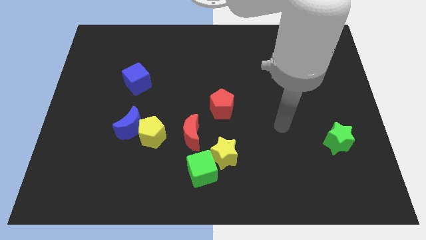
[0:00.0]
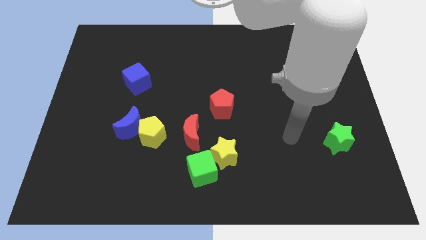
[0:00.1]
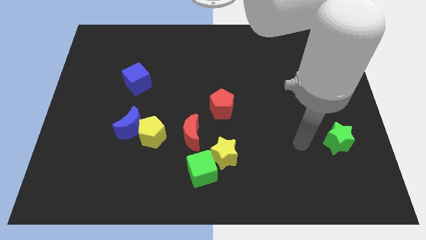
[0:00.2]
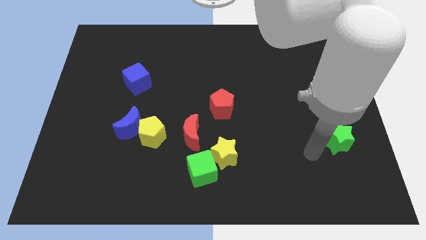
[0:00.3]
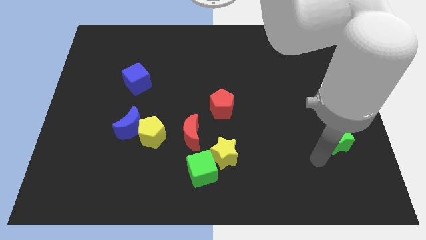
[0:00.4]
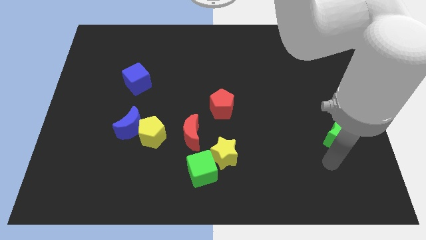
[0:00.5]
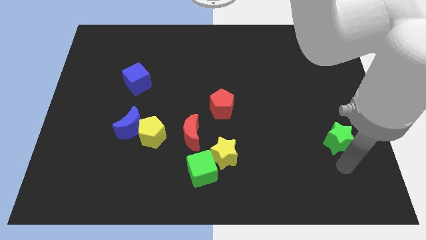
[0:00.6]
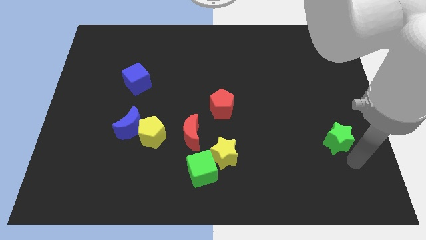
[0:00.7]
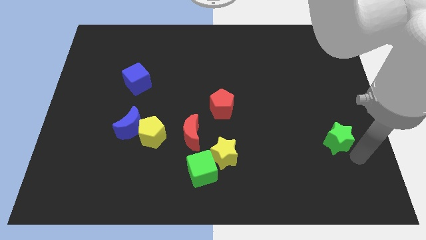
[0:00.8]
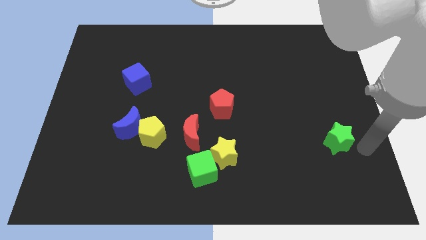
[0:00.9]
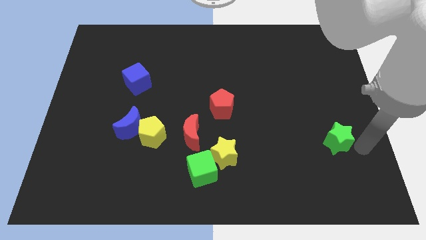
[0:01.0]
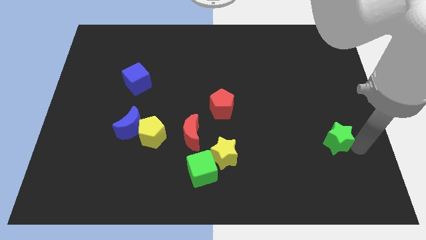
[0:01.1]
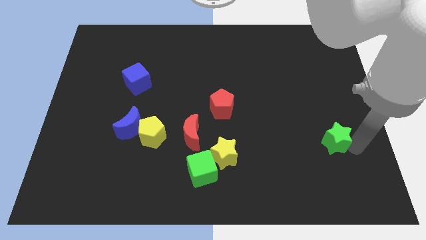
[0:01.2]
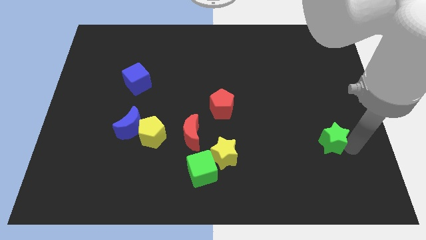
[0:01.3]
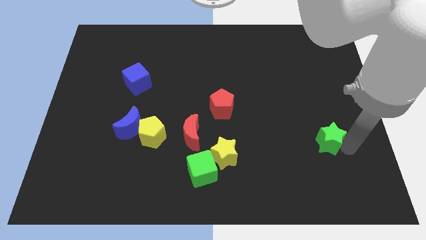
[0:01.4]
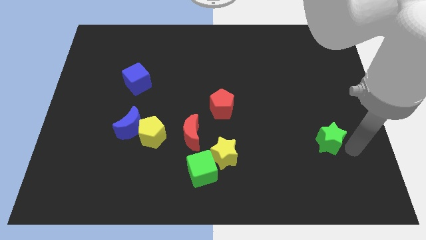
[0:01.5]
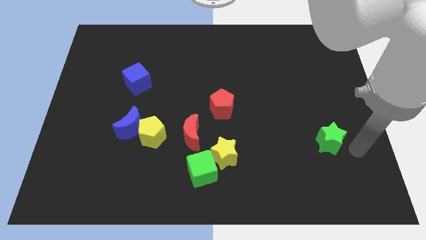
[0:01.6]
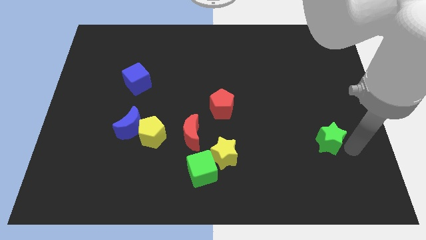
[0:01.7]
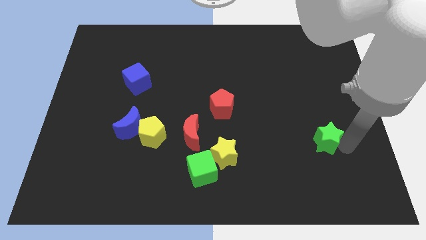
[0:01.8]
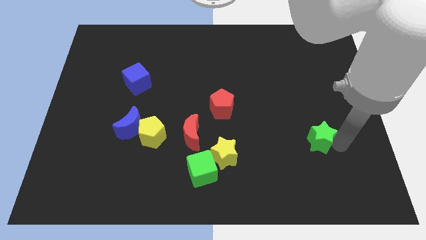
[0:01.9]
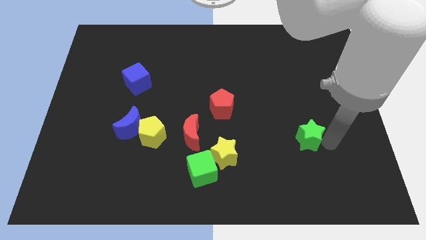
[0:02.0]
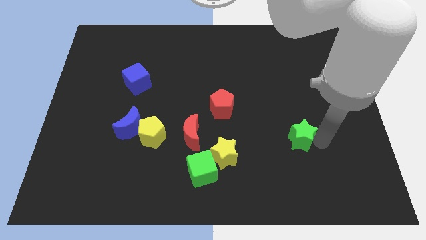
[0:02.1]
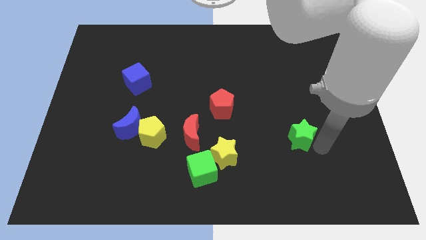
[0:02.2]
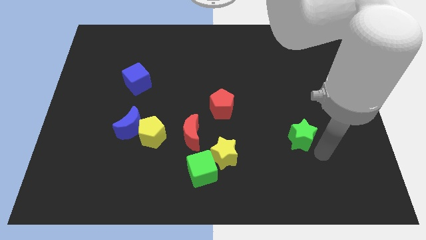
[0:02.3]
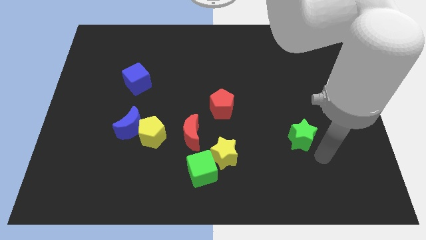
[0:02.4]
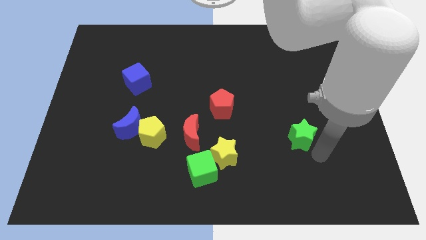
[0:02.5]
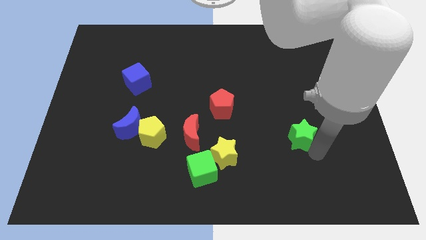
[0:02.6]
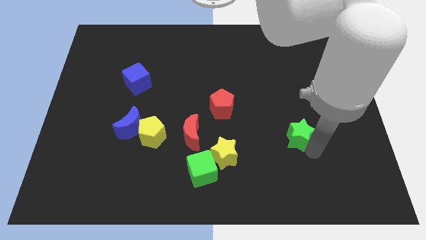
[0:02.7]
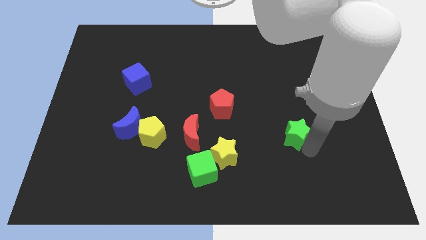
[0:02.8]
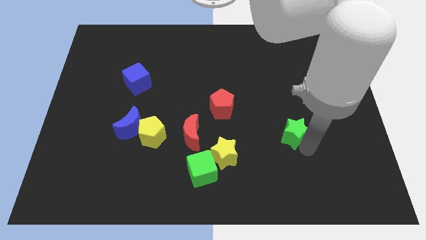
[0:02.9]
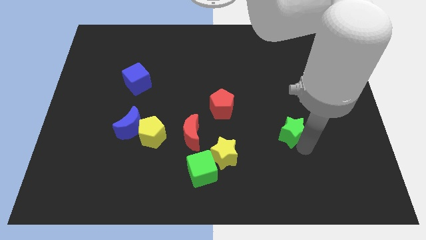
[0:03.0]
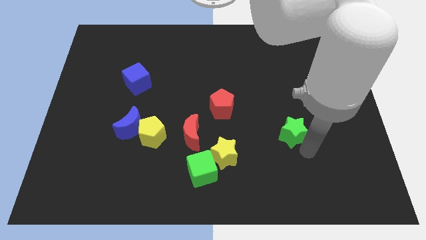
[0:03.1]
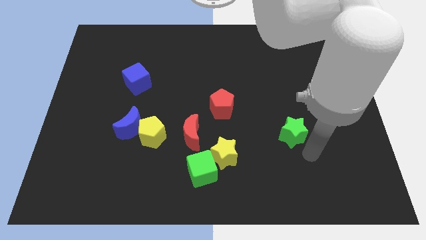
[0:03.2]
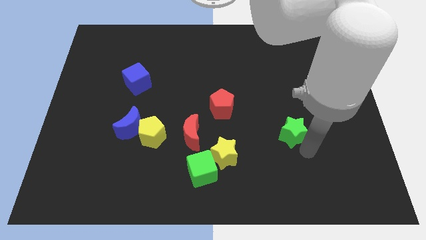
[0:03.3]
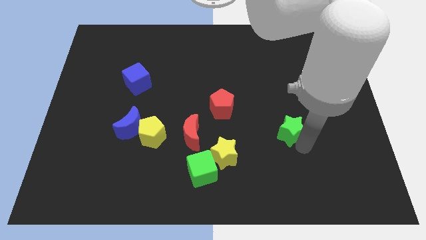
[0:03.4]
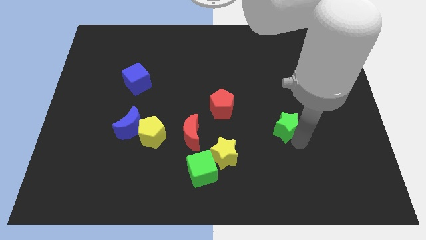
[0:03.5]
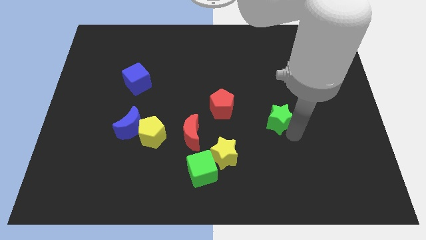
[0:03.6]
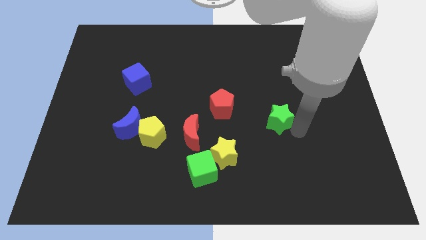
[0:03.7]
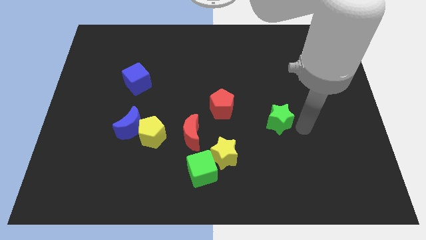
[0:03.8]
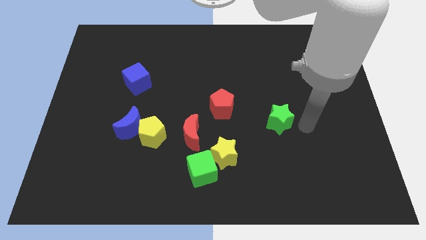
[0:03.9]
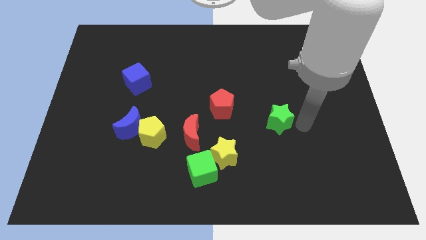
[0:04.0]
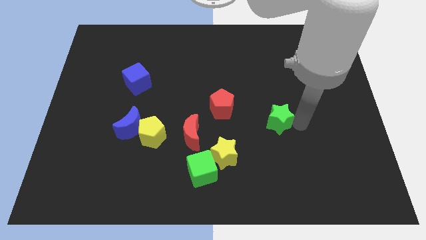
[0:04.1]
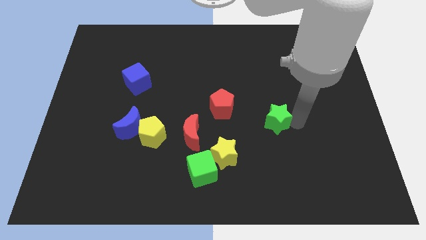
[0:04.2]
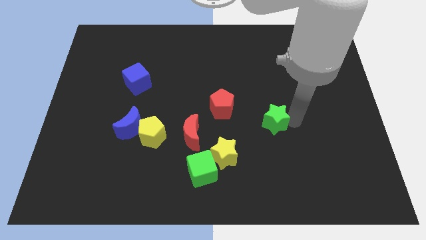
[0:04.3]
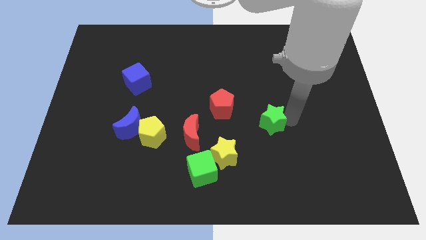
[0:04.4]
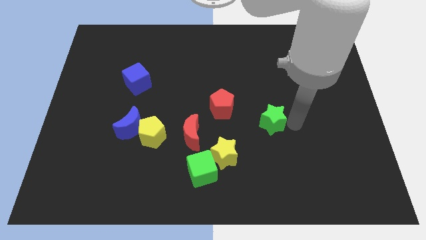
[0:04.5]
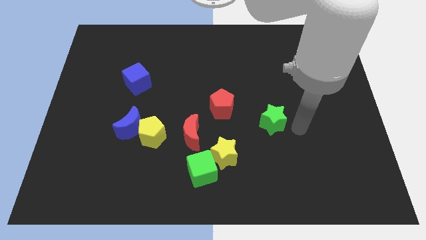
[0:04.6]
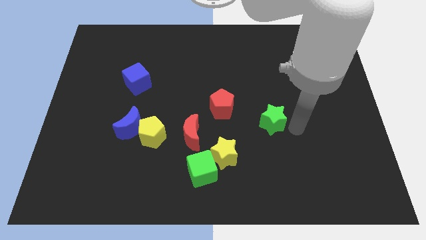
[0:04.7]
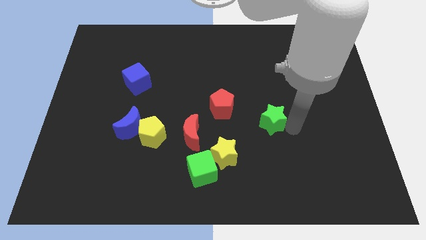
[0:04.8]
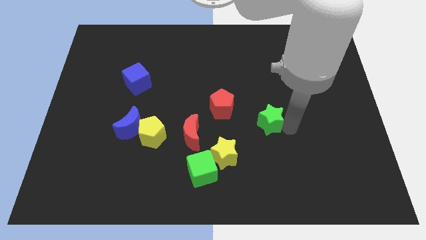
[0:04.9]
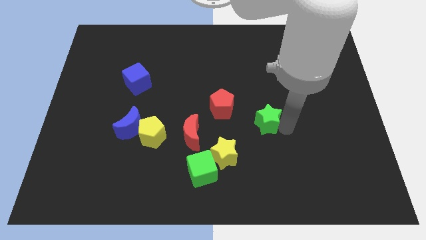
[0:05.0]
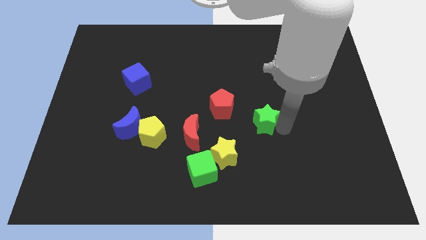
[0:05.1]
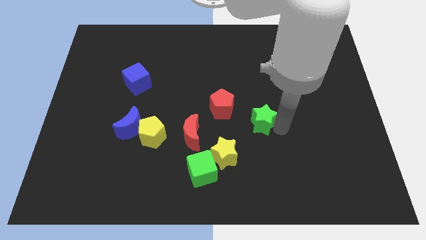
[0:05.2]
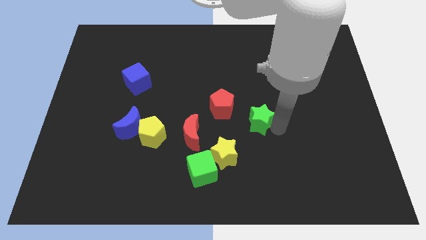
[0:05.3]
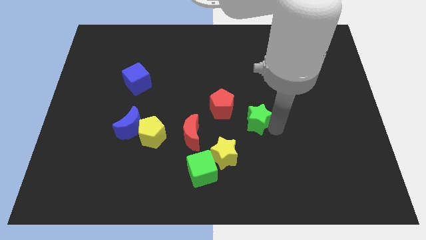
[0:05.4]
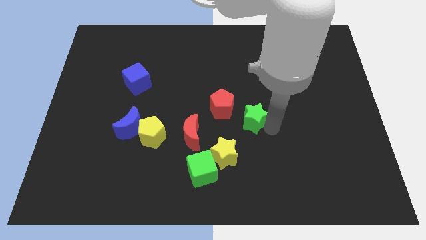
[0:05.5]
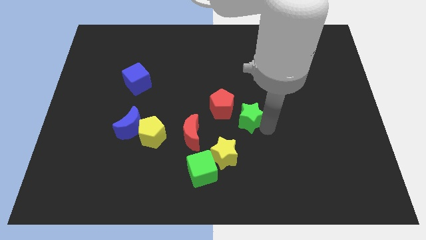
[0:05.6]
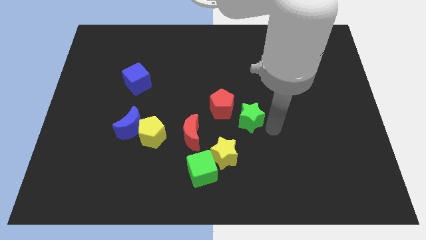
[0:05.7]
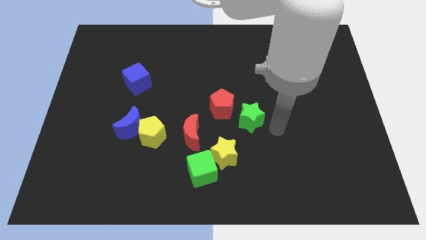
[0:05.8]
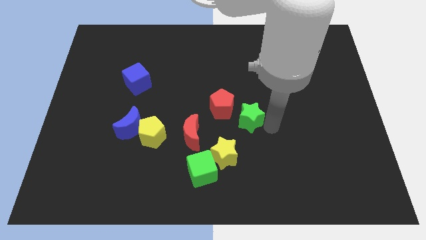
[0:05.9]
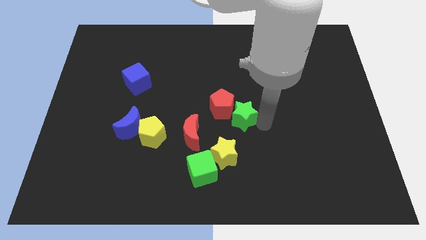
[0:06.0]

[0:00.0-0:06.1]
put the green star to the red pentagon

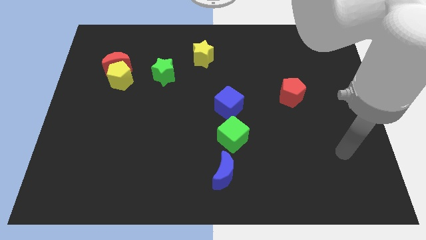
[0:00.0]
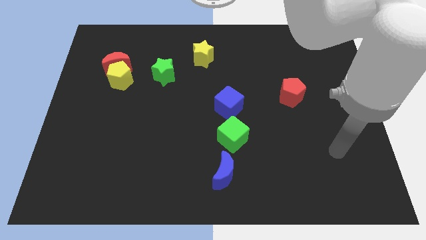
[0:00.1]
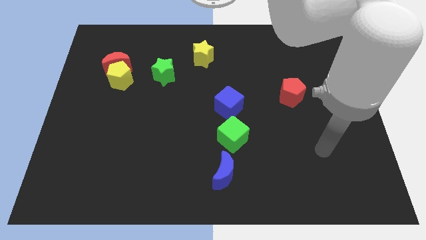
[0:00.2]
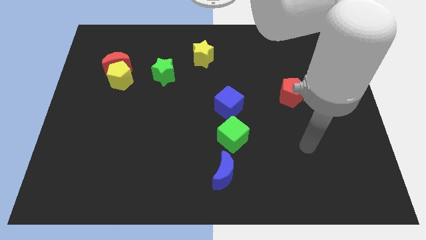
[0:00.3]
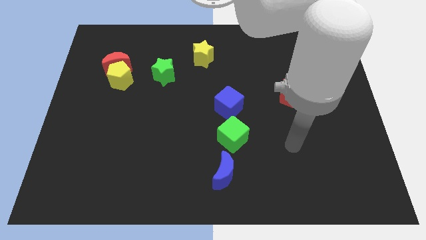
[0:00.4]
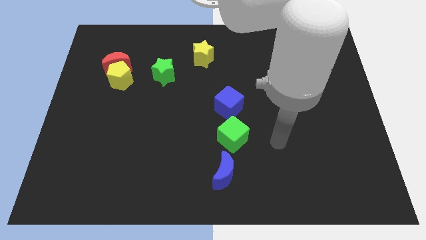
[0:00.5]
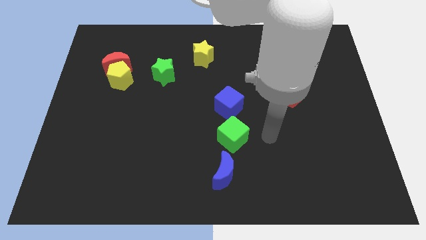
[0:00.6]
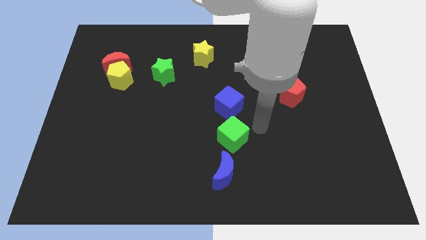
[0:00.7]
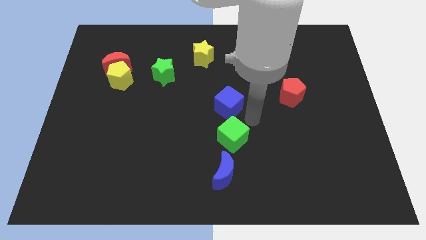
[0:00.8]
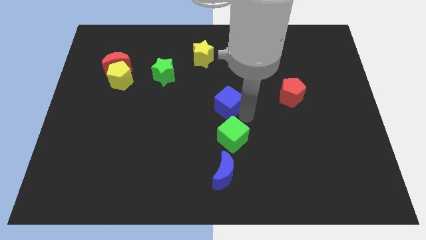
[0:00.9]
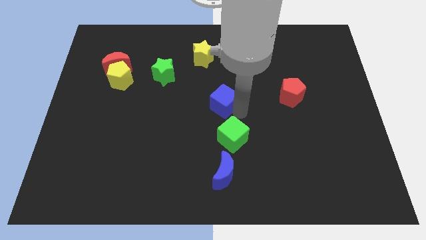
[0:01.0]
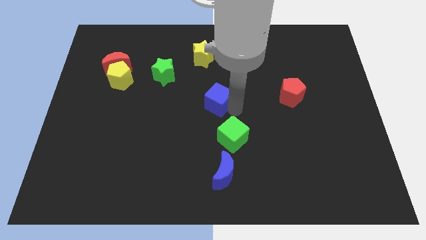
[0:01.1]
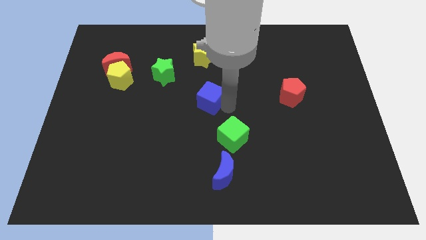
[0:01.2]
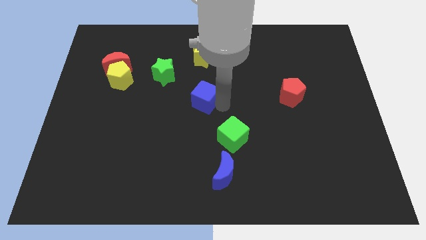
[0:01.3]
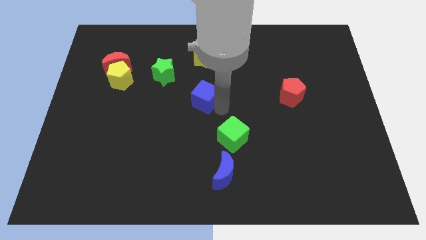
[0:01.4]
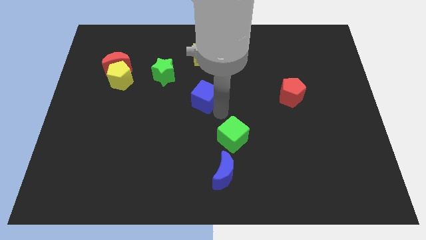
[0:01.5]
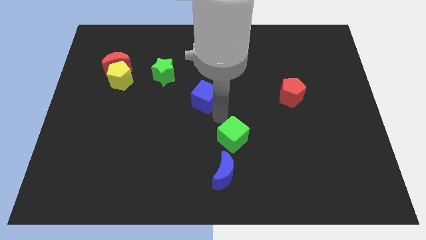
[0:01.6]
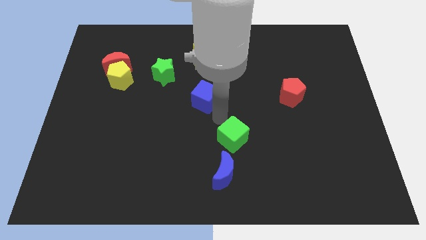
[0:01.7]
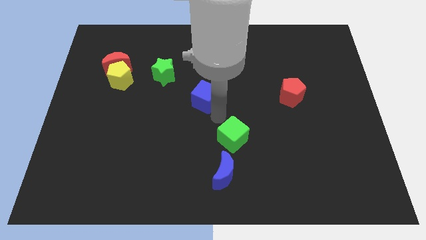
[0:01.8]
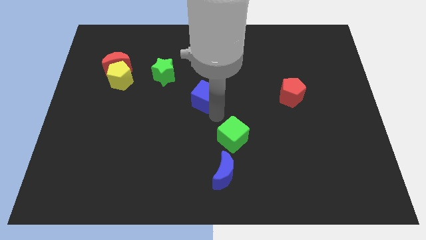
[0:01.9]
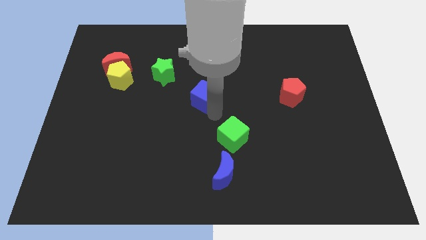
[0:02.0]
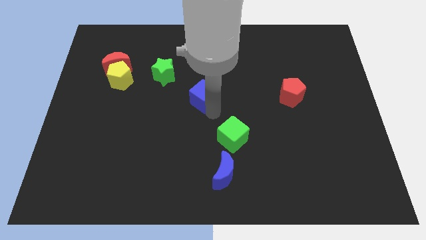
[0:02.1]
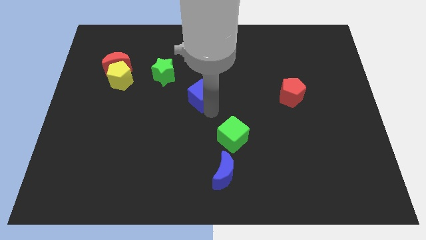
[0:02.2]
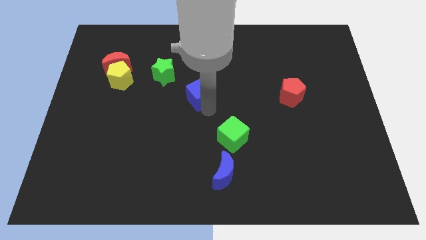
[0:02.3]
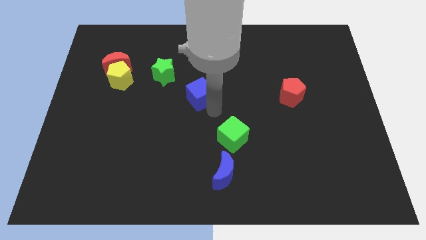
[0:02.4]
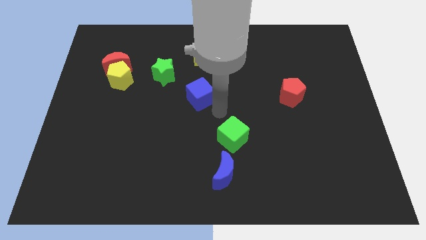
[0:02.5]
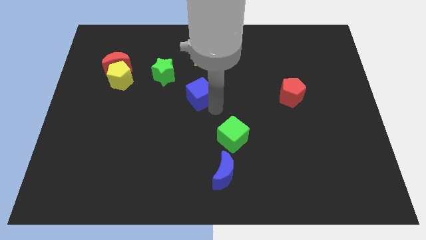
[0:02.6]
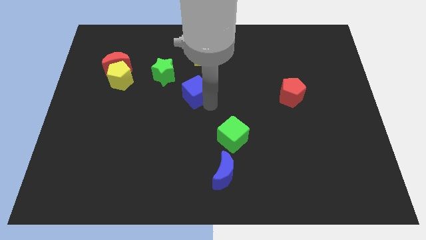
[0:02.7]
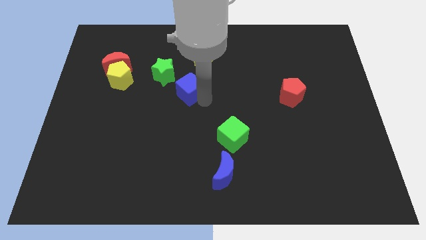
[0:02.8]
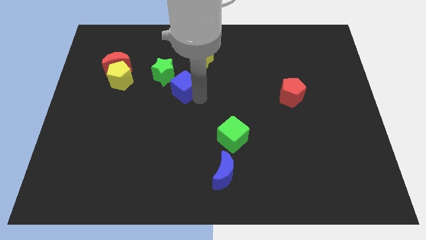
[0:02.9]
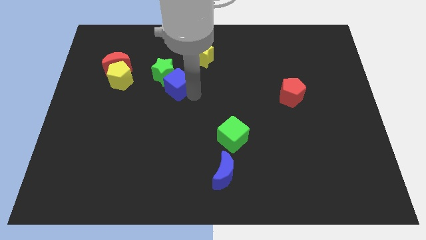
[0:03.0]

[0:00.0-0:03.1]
push the blue cube towards the green star
